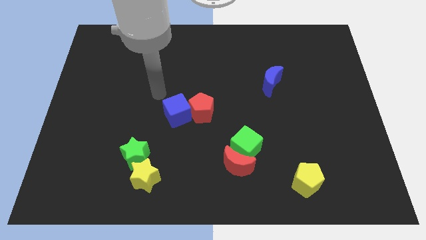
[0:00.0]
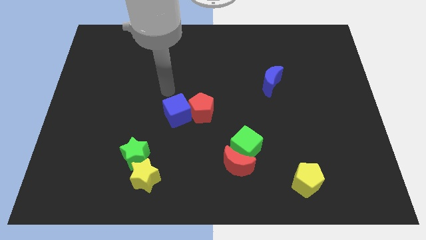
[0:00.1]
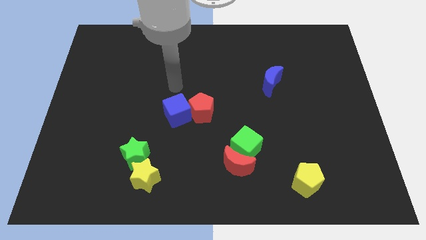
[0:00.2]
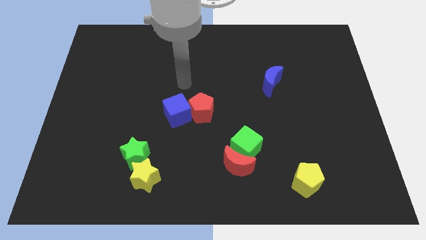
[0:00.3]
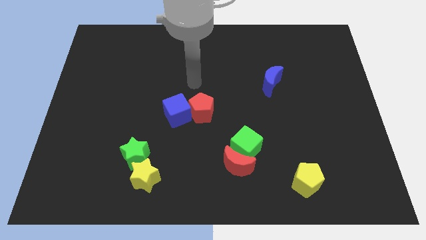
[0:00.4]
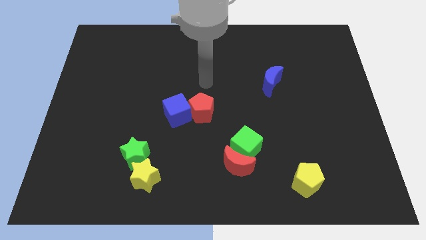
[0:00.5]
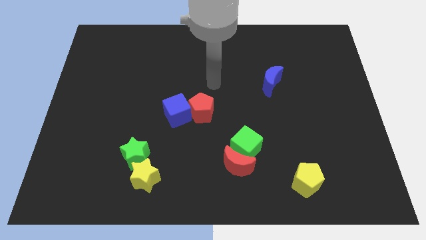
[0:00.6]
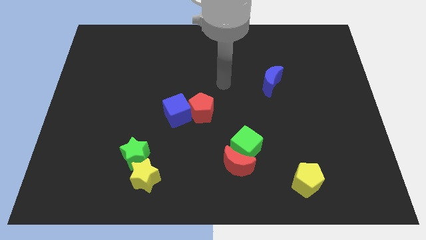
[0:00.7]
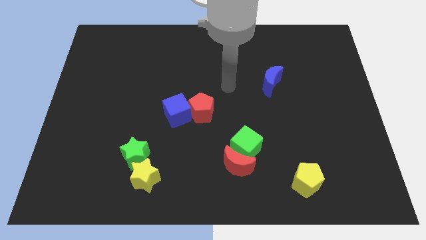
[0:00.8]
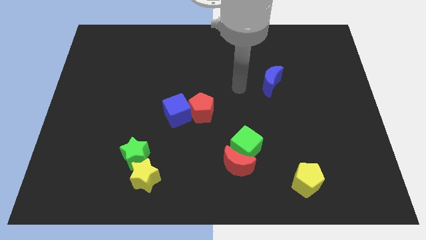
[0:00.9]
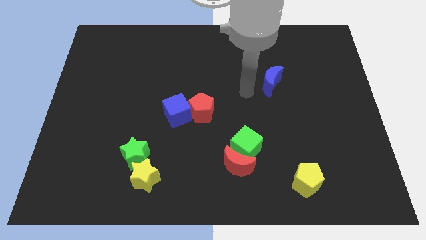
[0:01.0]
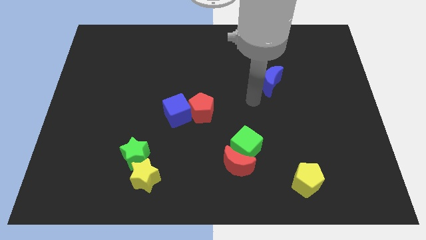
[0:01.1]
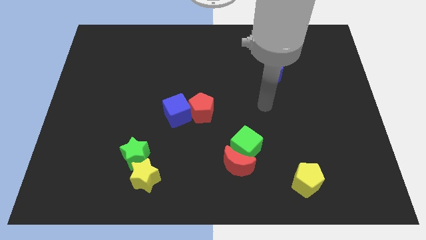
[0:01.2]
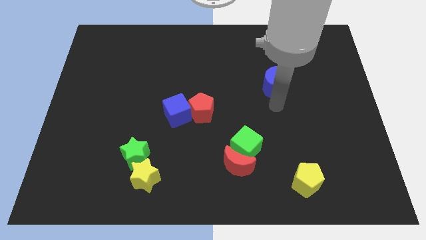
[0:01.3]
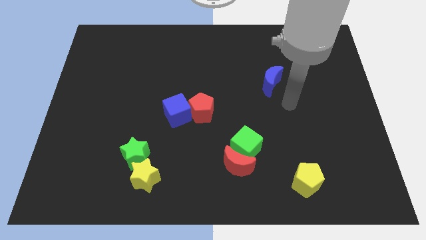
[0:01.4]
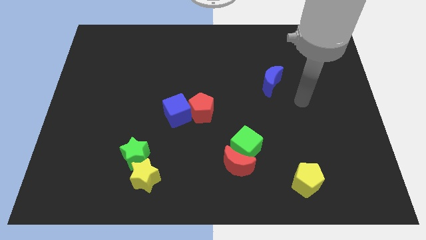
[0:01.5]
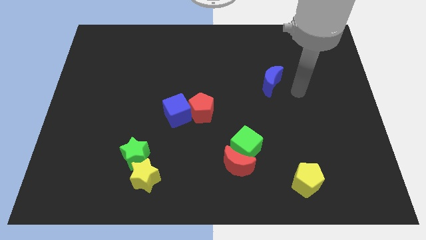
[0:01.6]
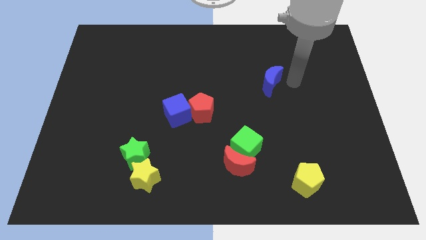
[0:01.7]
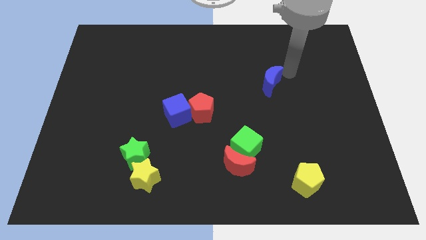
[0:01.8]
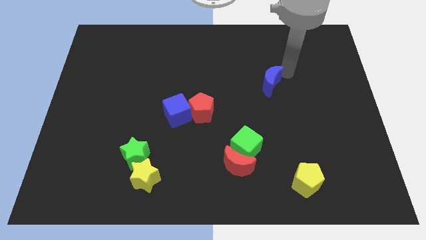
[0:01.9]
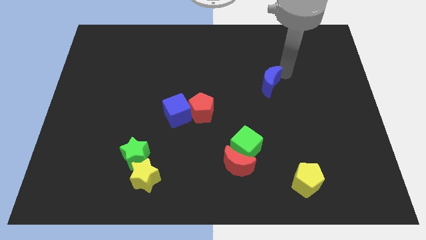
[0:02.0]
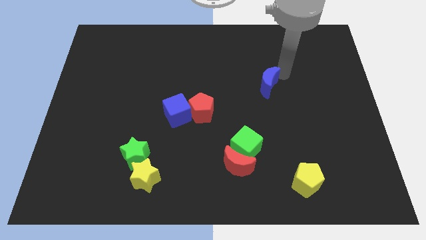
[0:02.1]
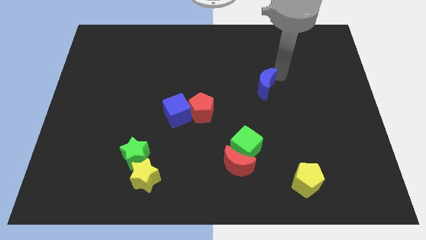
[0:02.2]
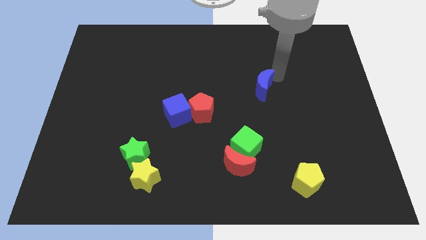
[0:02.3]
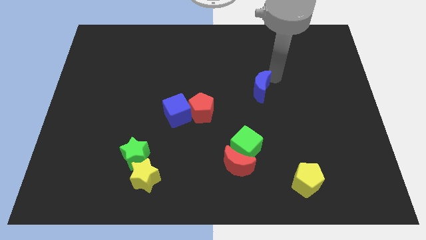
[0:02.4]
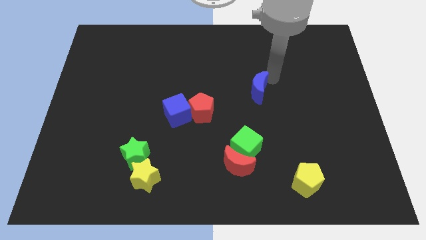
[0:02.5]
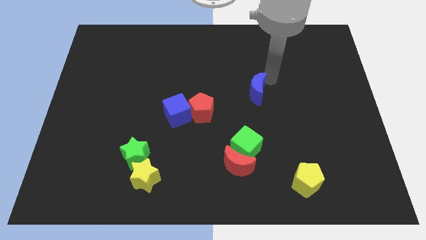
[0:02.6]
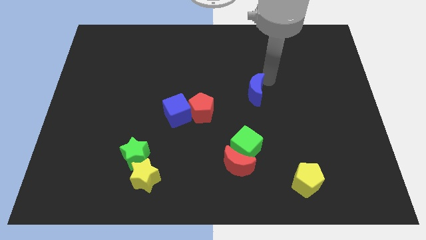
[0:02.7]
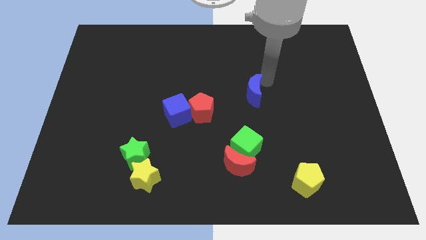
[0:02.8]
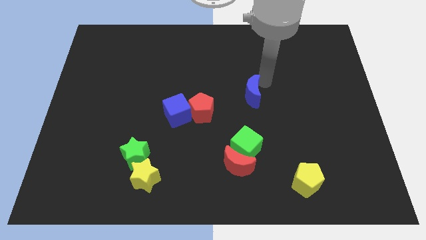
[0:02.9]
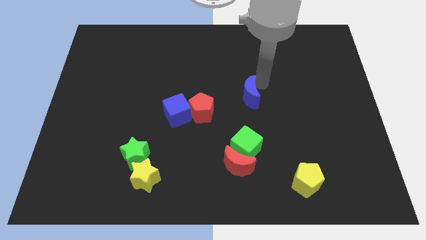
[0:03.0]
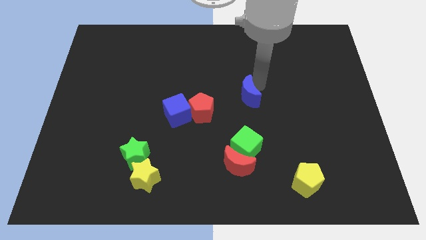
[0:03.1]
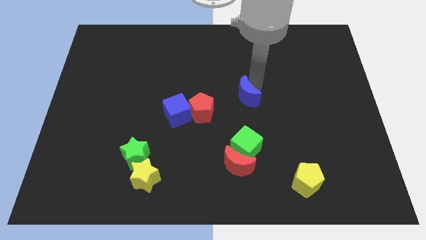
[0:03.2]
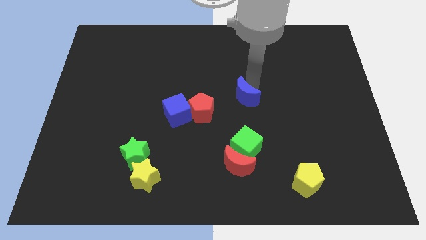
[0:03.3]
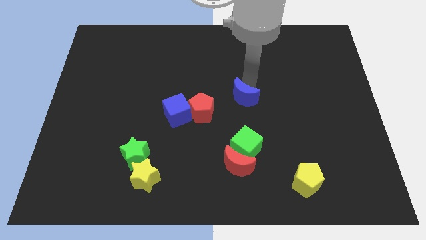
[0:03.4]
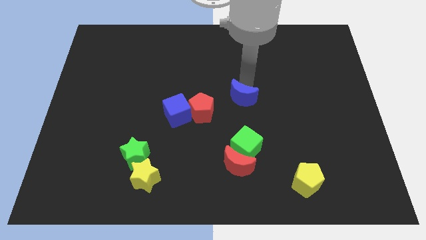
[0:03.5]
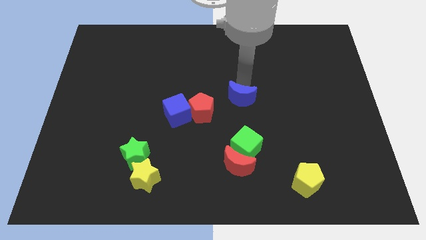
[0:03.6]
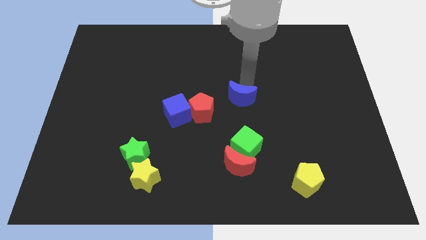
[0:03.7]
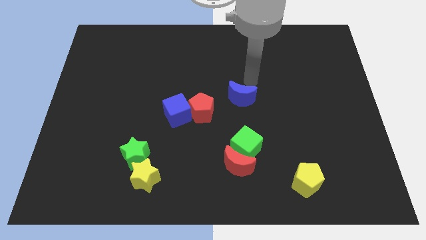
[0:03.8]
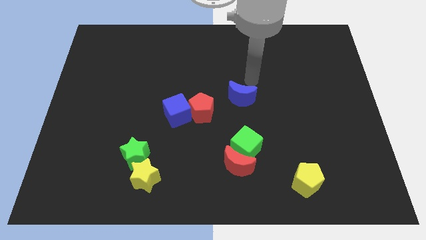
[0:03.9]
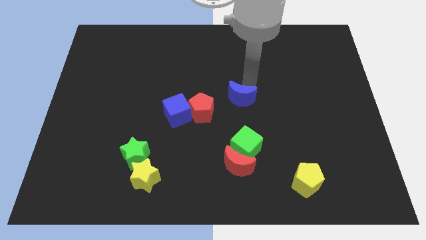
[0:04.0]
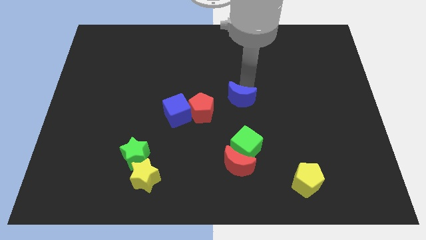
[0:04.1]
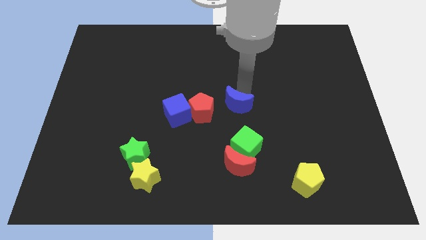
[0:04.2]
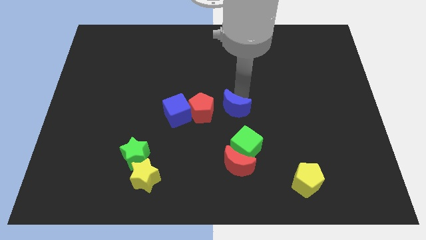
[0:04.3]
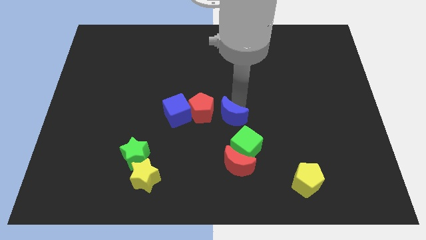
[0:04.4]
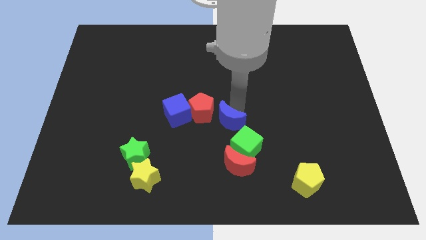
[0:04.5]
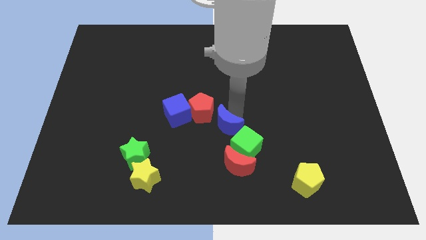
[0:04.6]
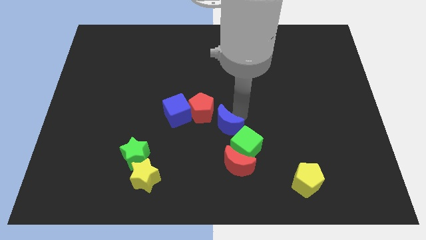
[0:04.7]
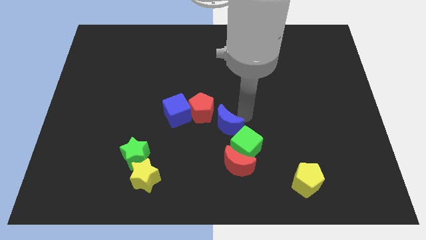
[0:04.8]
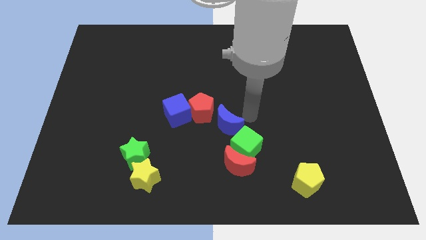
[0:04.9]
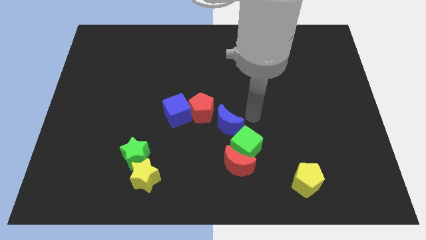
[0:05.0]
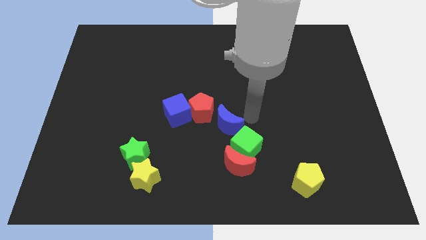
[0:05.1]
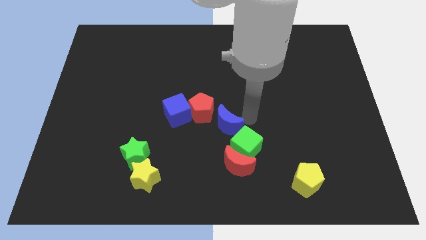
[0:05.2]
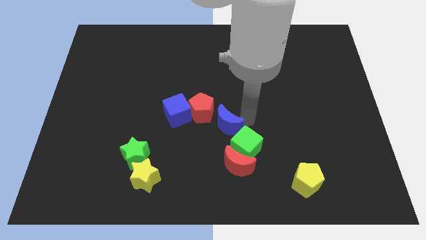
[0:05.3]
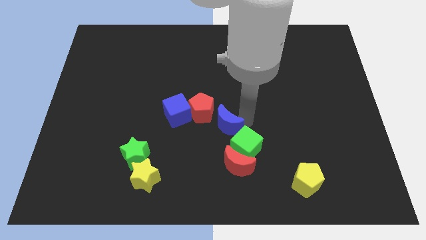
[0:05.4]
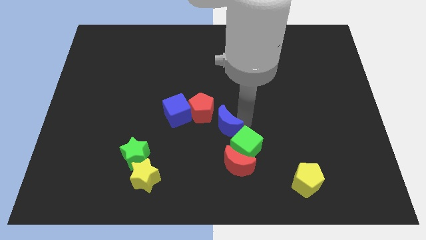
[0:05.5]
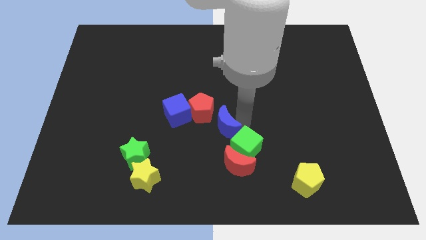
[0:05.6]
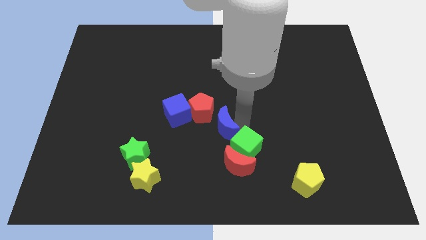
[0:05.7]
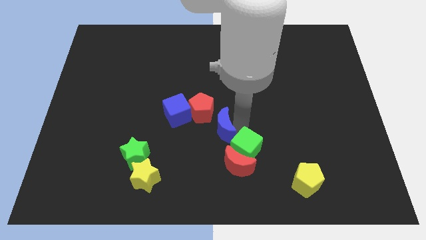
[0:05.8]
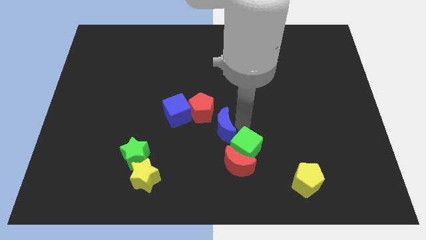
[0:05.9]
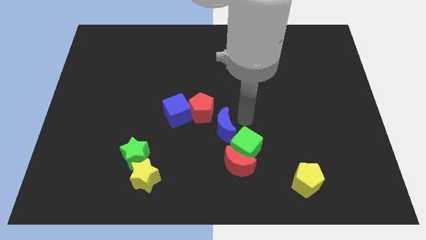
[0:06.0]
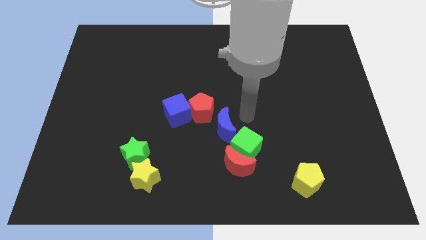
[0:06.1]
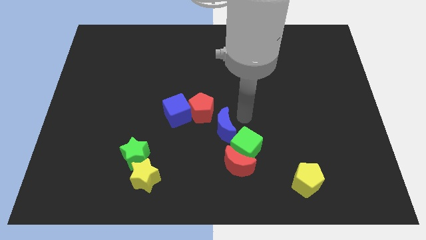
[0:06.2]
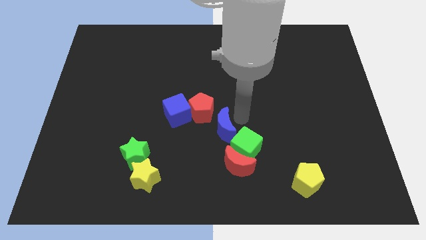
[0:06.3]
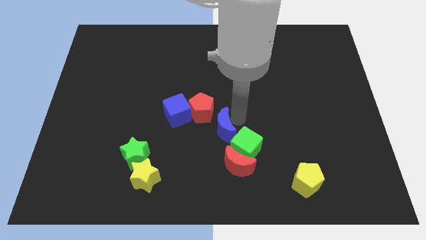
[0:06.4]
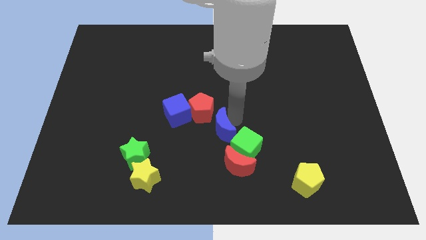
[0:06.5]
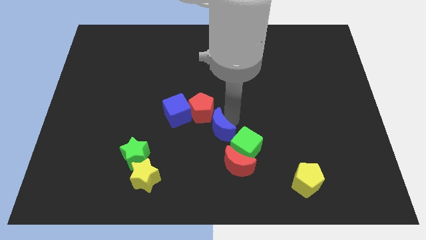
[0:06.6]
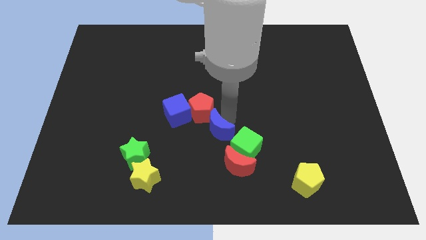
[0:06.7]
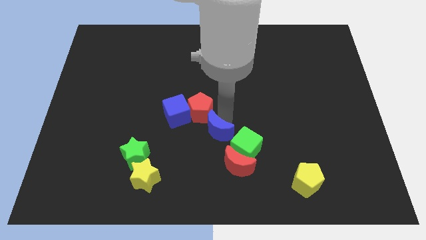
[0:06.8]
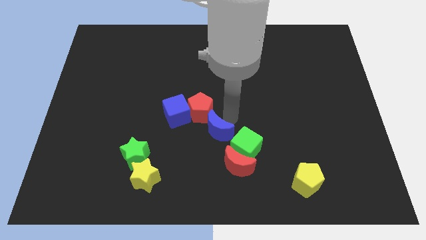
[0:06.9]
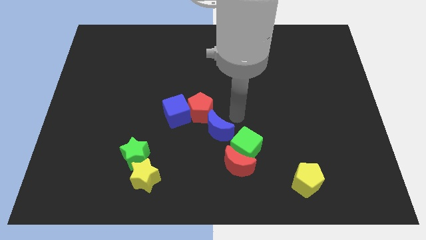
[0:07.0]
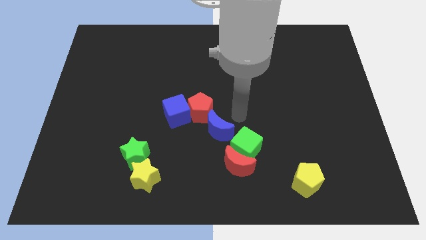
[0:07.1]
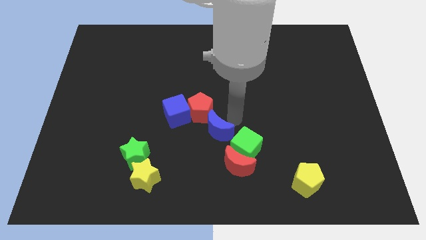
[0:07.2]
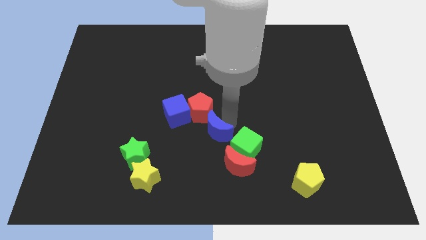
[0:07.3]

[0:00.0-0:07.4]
push the blue moon down and to the left

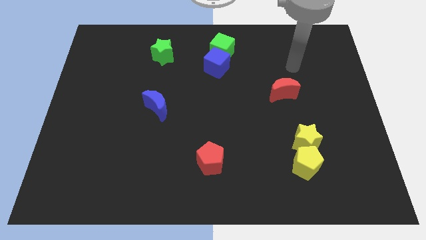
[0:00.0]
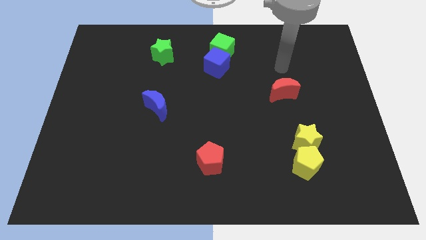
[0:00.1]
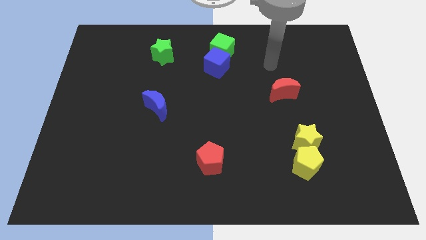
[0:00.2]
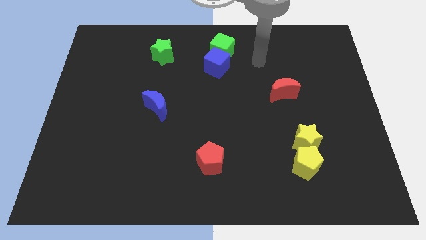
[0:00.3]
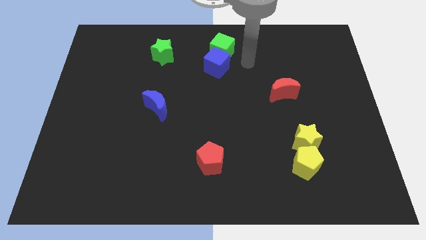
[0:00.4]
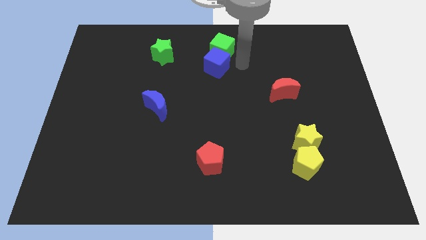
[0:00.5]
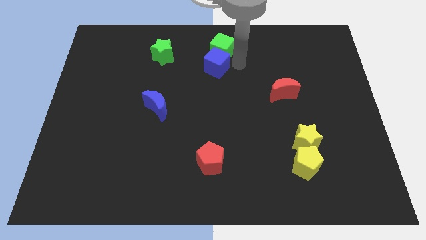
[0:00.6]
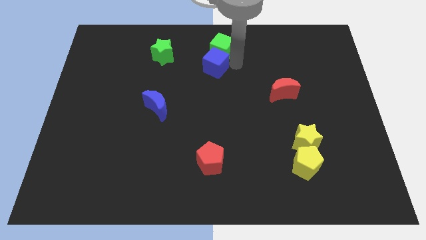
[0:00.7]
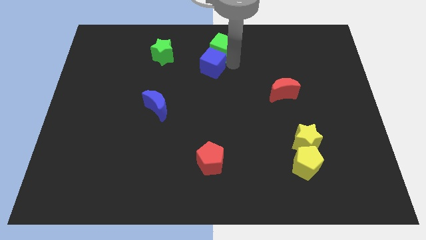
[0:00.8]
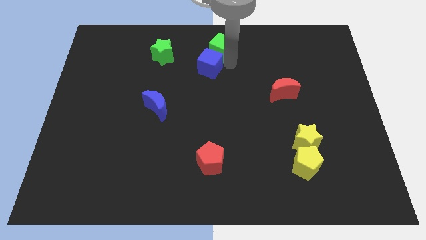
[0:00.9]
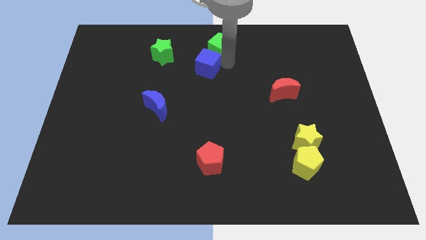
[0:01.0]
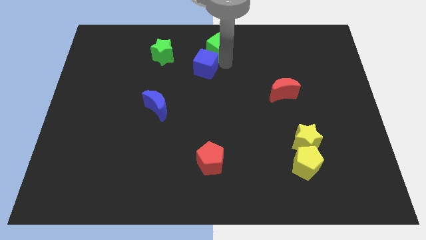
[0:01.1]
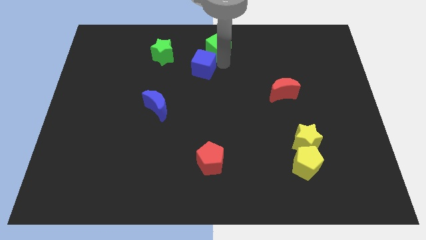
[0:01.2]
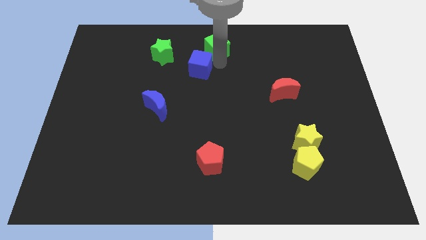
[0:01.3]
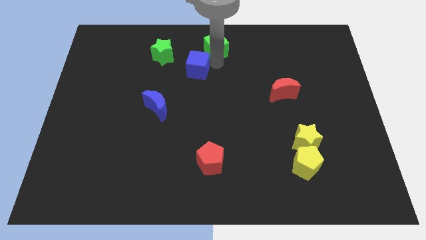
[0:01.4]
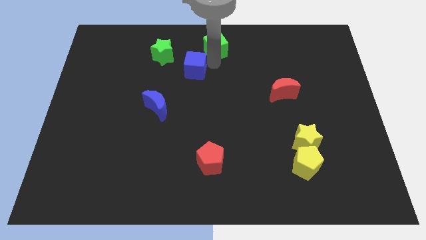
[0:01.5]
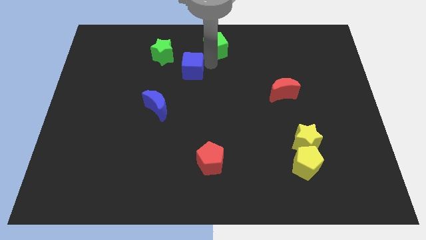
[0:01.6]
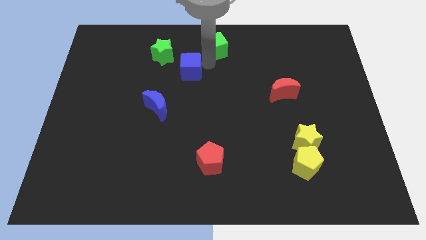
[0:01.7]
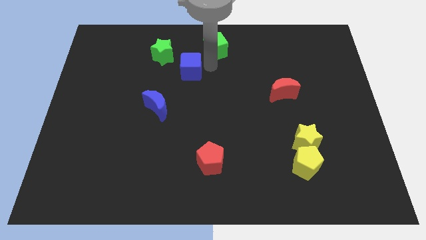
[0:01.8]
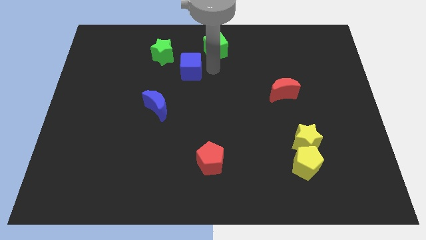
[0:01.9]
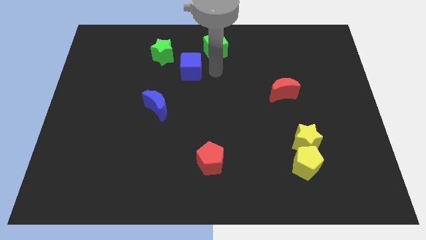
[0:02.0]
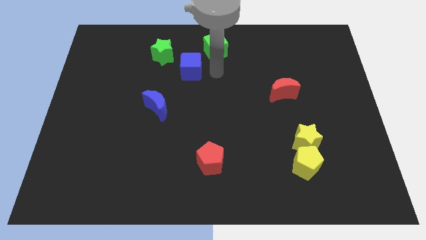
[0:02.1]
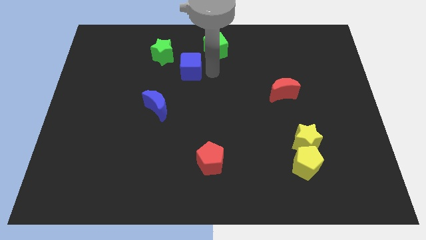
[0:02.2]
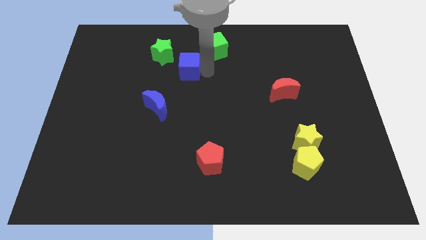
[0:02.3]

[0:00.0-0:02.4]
slightly slide the blue cube to the left
